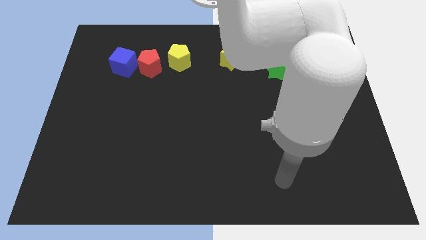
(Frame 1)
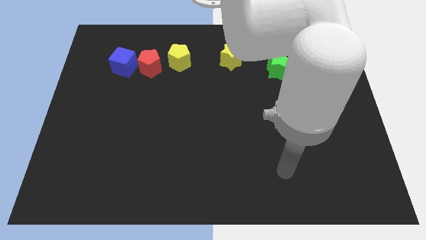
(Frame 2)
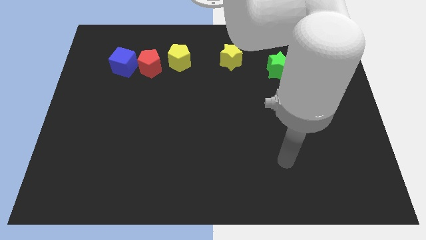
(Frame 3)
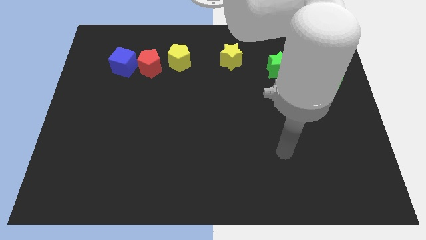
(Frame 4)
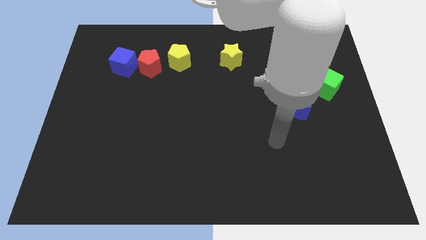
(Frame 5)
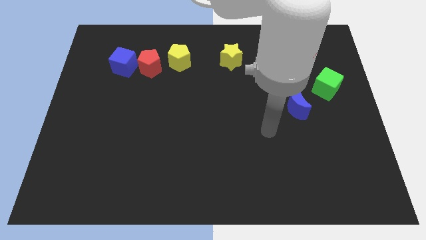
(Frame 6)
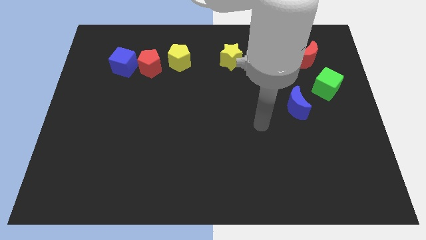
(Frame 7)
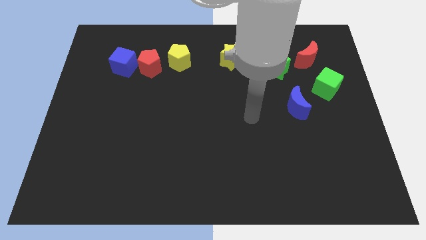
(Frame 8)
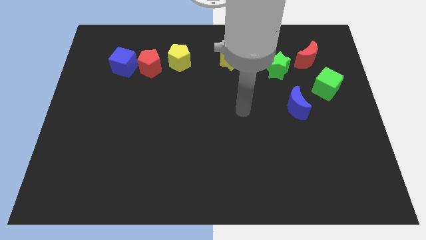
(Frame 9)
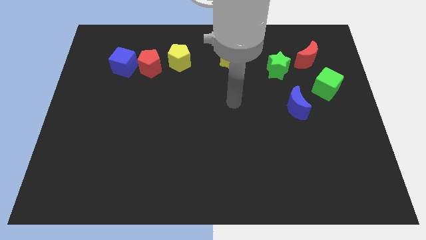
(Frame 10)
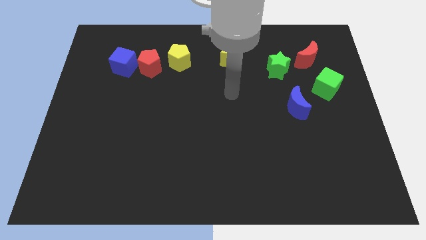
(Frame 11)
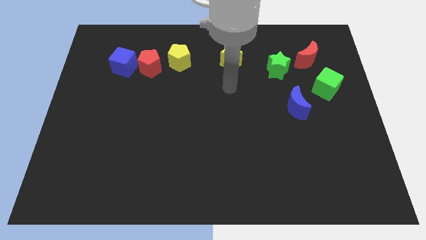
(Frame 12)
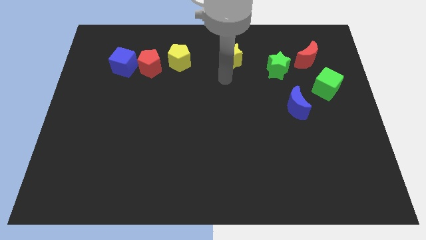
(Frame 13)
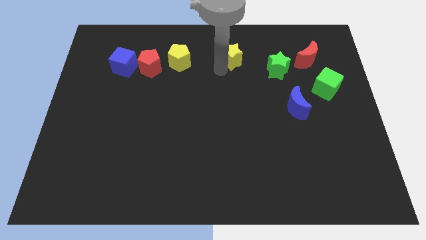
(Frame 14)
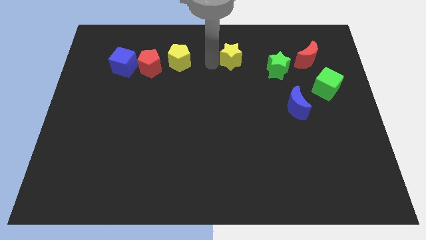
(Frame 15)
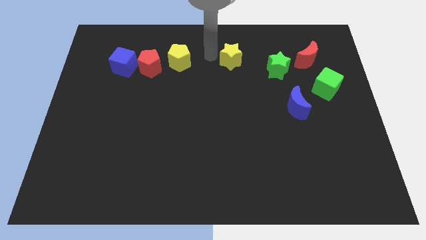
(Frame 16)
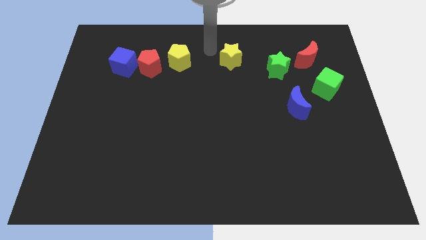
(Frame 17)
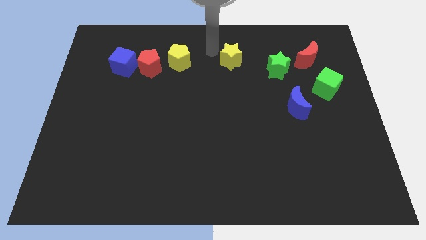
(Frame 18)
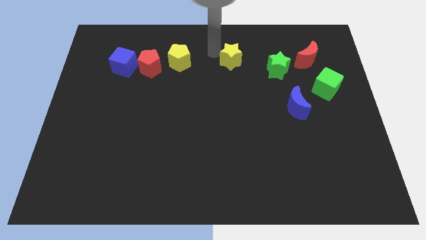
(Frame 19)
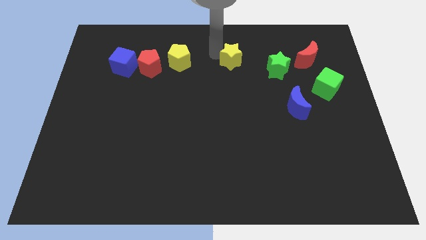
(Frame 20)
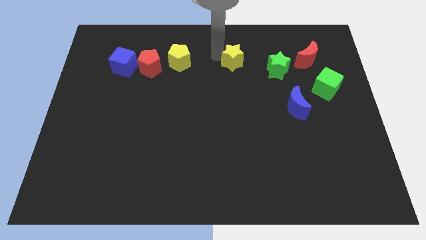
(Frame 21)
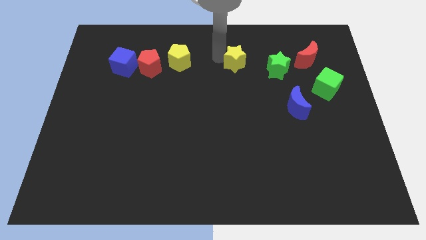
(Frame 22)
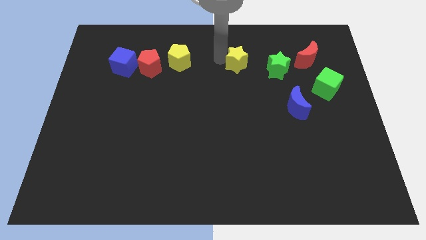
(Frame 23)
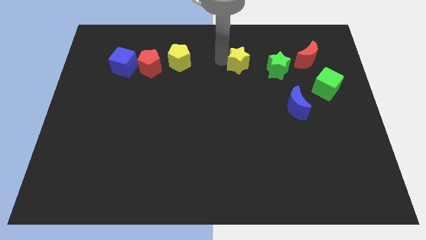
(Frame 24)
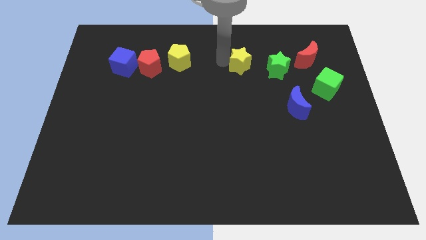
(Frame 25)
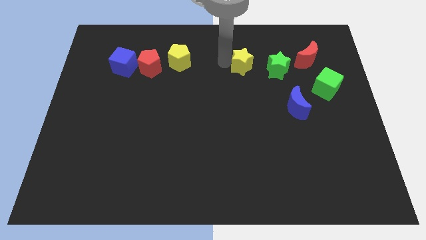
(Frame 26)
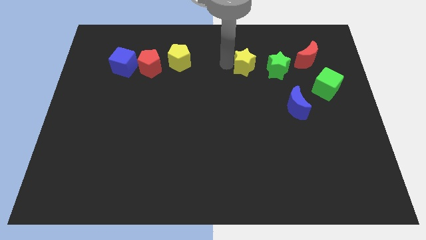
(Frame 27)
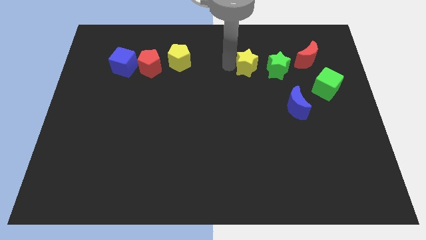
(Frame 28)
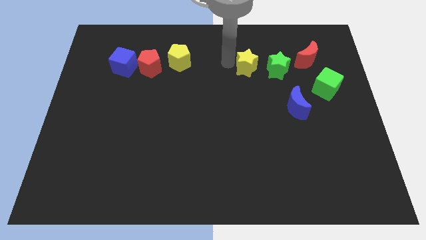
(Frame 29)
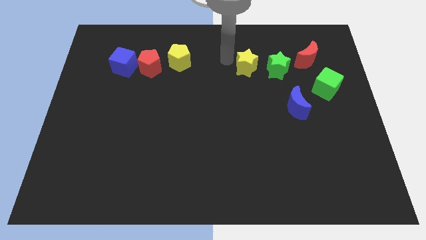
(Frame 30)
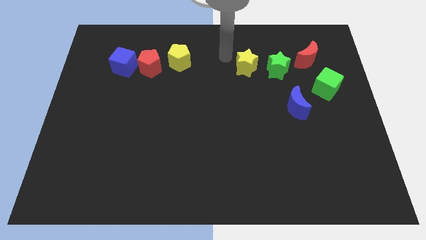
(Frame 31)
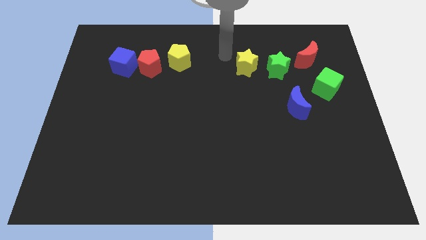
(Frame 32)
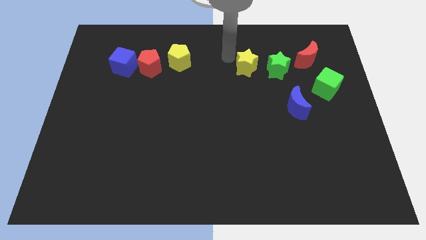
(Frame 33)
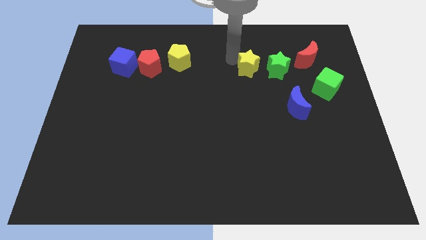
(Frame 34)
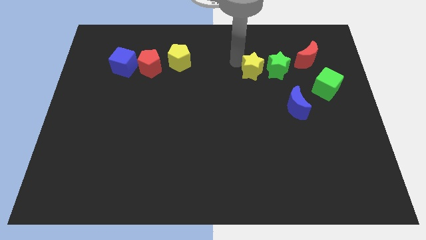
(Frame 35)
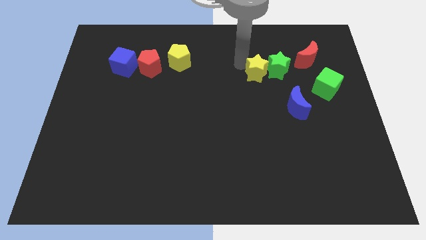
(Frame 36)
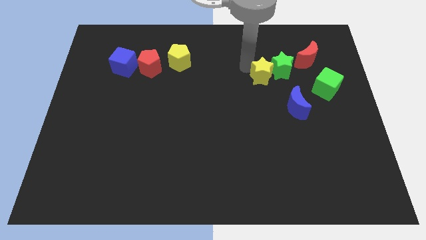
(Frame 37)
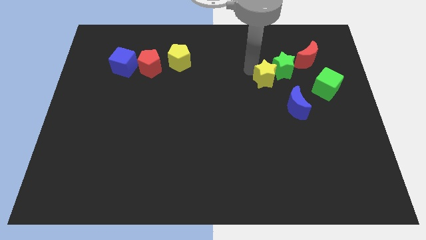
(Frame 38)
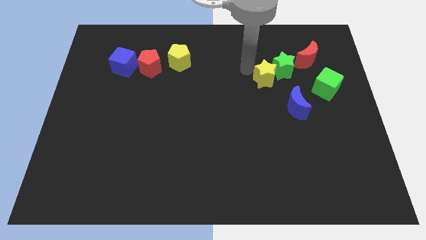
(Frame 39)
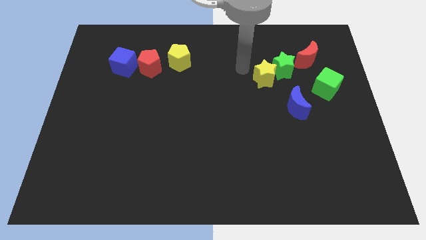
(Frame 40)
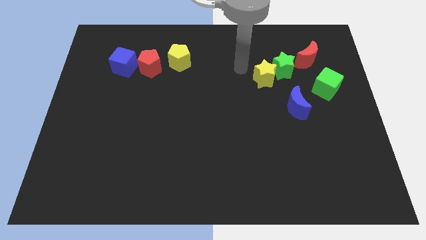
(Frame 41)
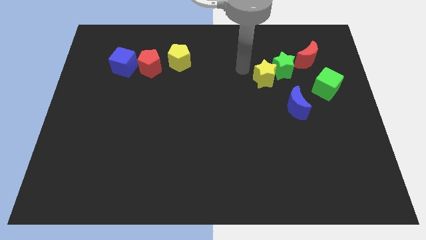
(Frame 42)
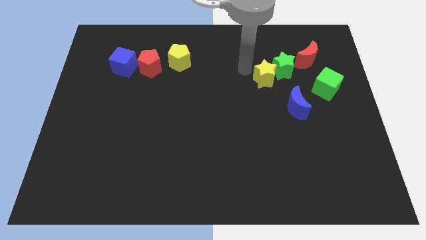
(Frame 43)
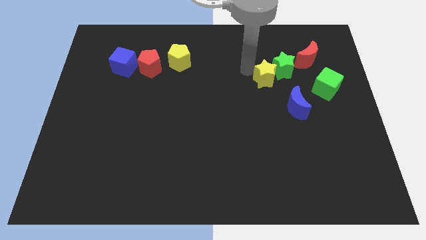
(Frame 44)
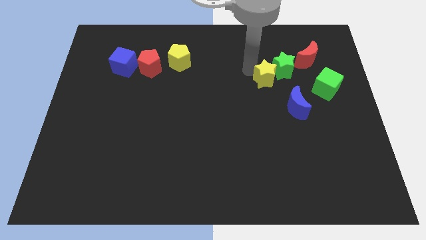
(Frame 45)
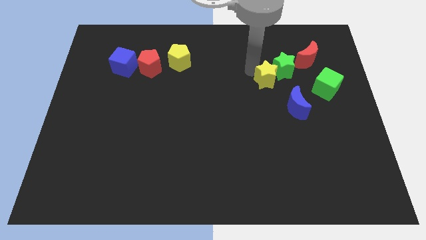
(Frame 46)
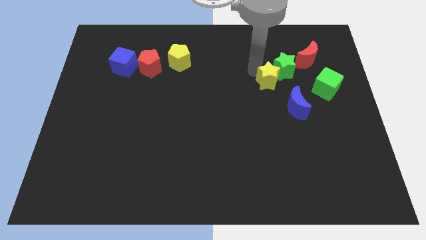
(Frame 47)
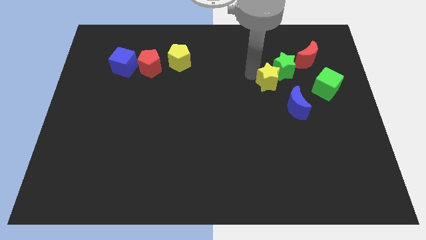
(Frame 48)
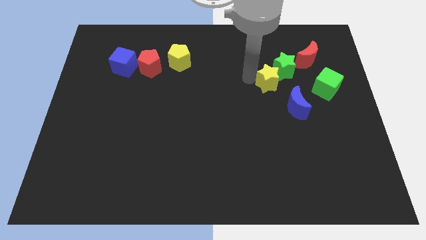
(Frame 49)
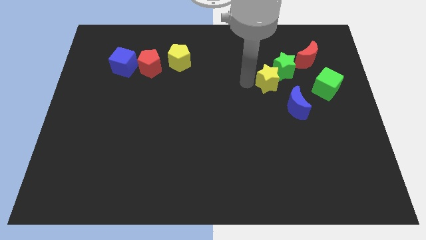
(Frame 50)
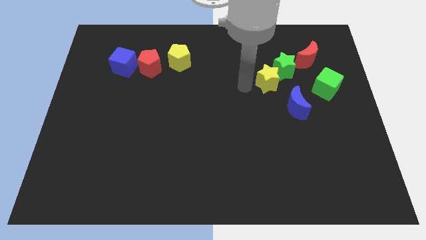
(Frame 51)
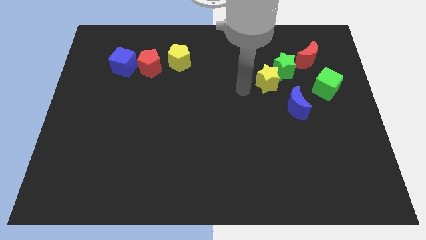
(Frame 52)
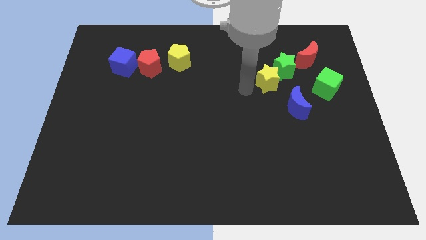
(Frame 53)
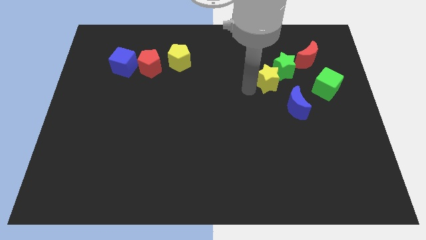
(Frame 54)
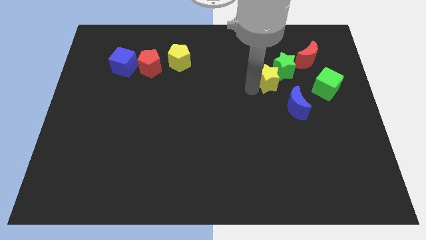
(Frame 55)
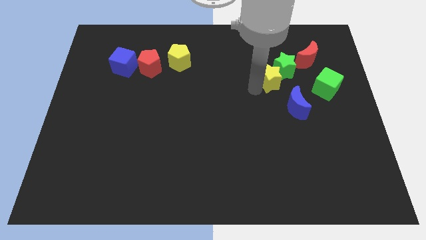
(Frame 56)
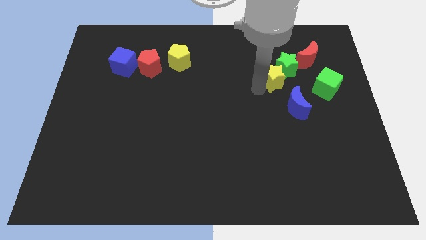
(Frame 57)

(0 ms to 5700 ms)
put the yellow star to the bottom left side of the red moon
